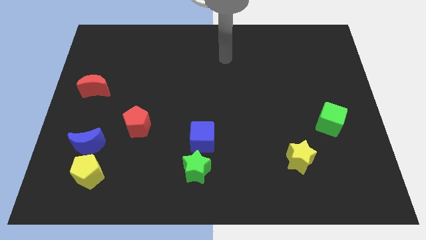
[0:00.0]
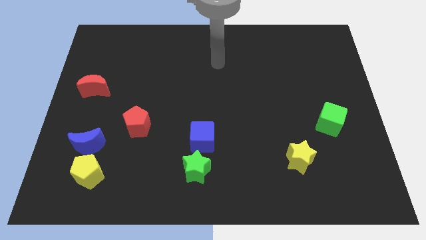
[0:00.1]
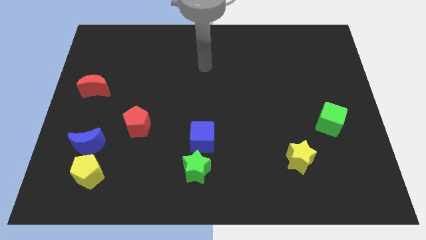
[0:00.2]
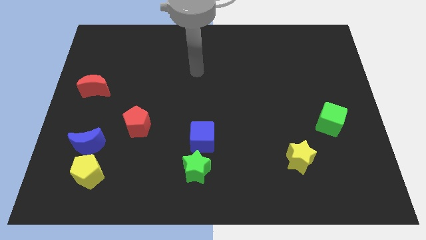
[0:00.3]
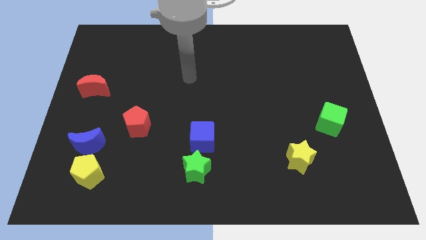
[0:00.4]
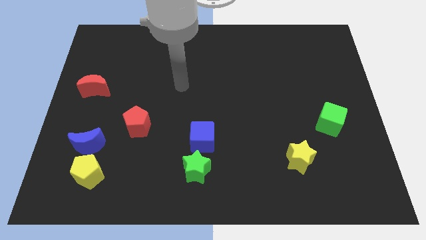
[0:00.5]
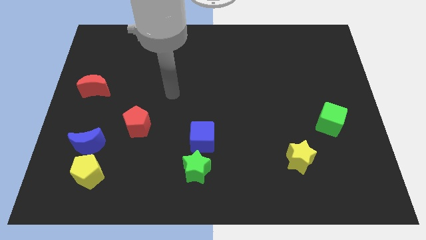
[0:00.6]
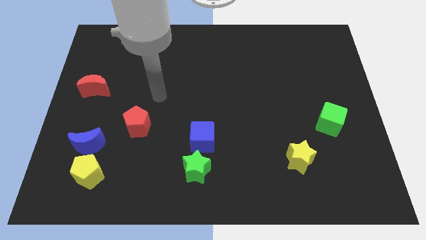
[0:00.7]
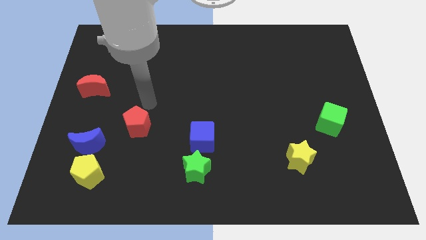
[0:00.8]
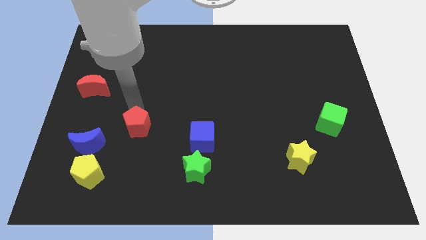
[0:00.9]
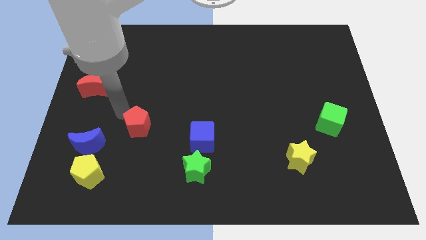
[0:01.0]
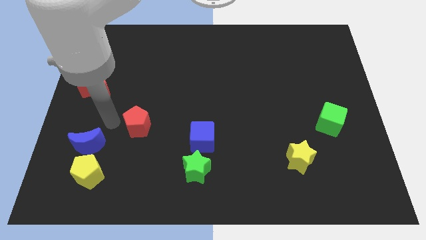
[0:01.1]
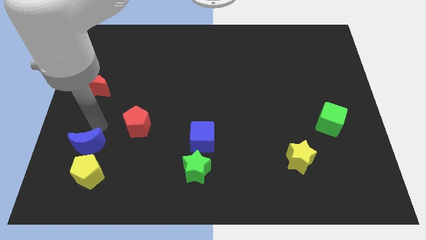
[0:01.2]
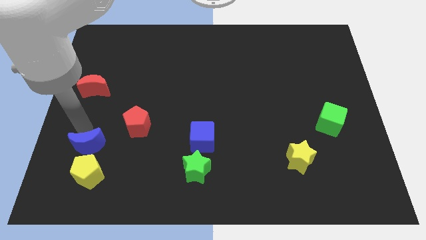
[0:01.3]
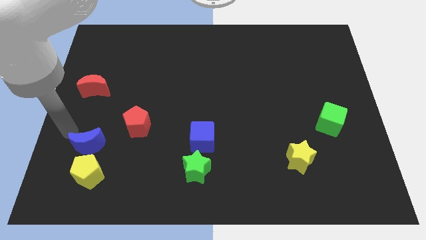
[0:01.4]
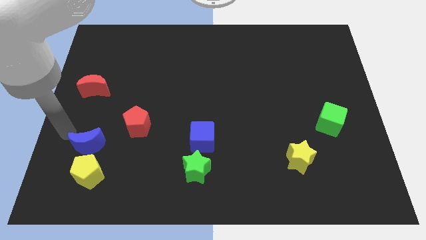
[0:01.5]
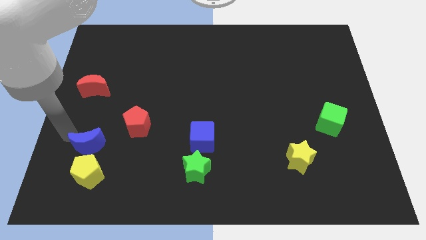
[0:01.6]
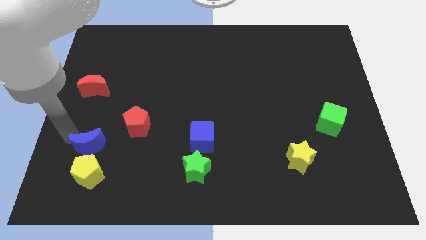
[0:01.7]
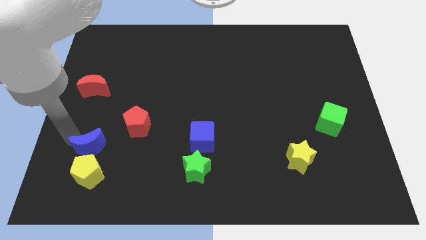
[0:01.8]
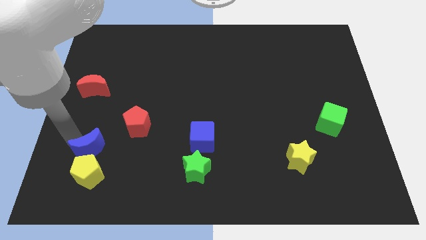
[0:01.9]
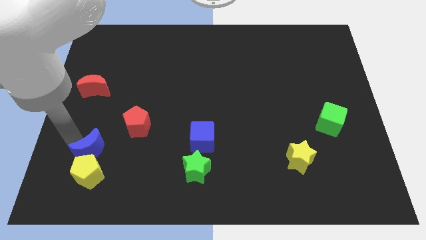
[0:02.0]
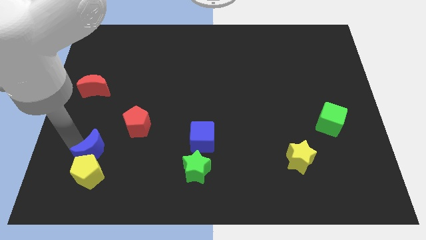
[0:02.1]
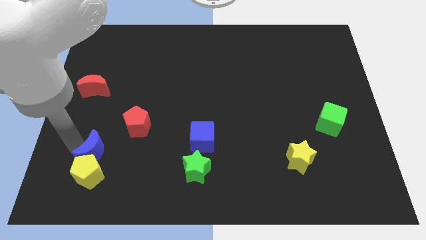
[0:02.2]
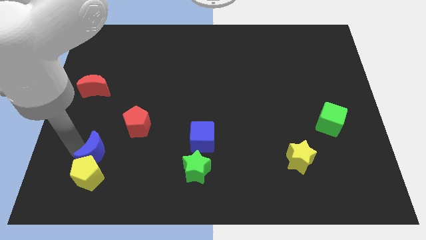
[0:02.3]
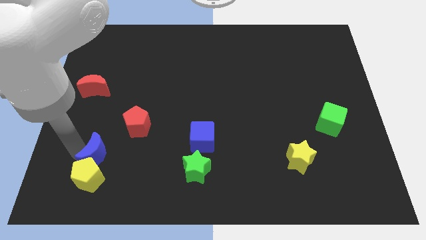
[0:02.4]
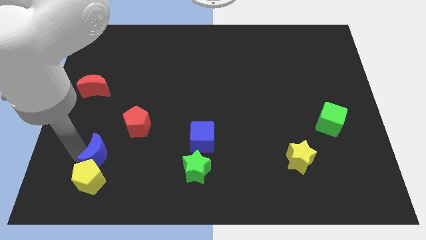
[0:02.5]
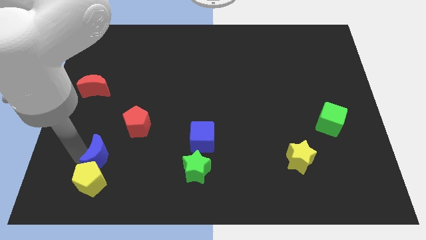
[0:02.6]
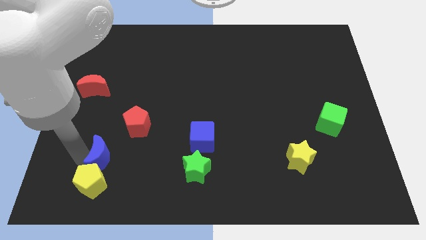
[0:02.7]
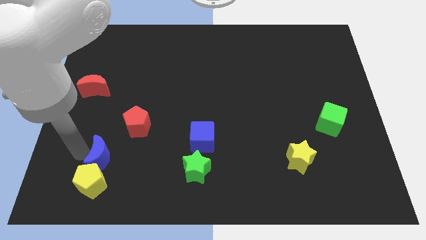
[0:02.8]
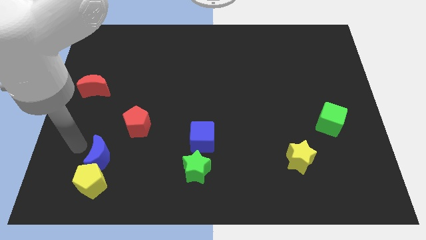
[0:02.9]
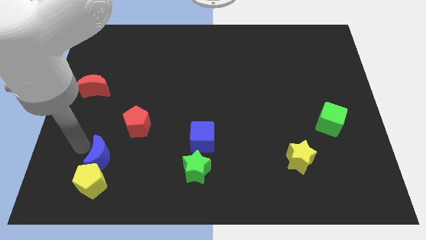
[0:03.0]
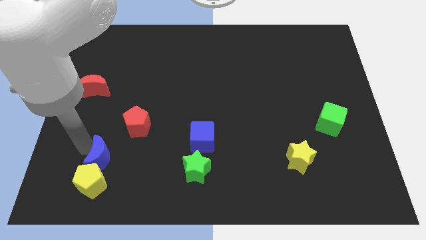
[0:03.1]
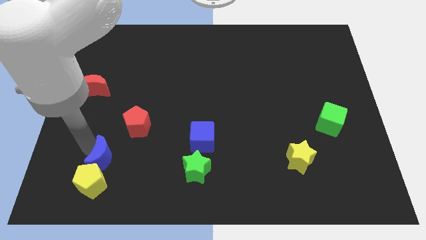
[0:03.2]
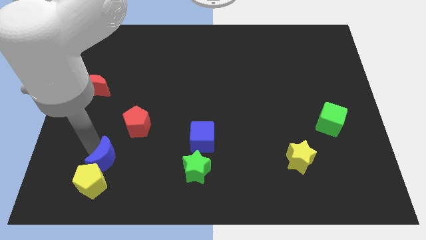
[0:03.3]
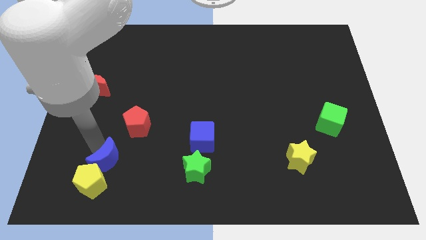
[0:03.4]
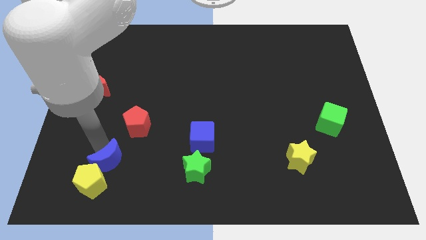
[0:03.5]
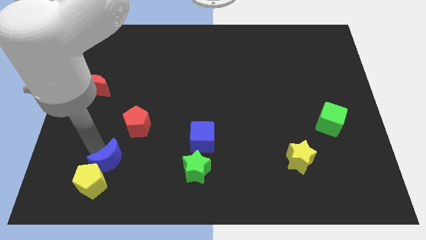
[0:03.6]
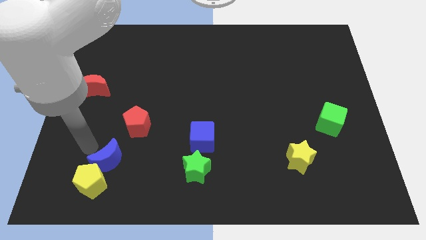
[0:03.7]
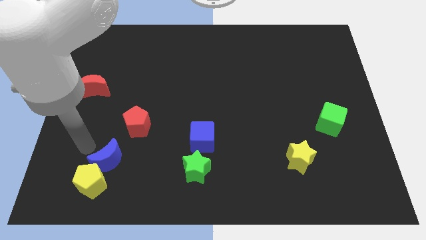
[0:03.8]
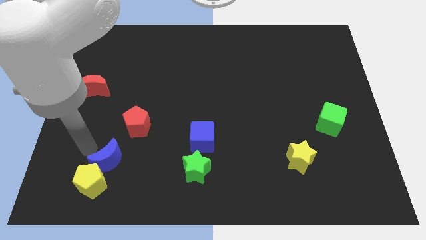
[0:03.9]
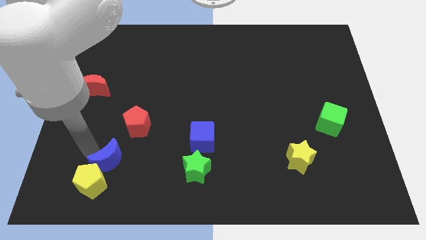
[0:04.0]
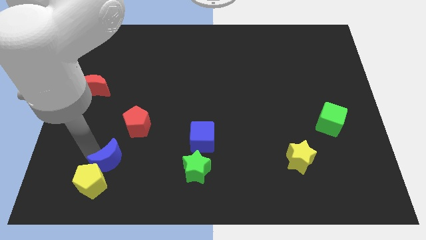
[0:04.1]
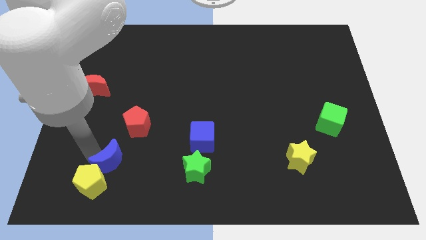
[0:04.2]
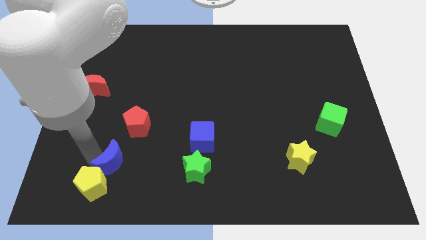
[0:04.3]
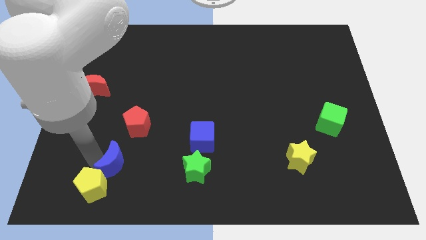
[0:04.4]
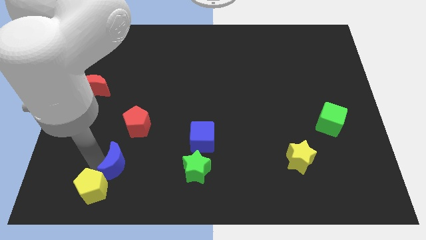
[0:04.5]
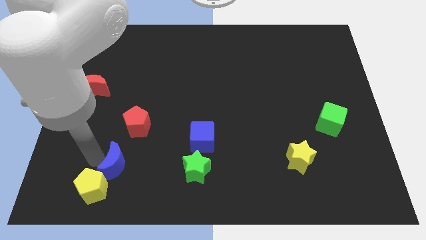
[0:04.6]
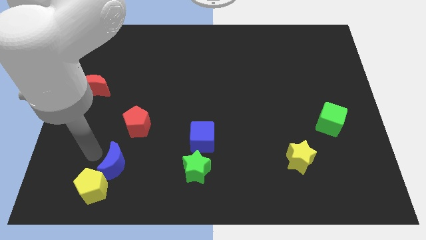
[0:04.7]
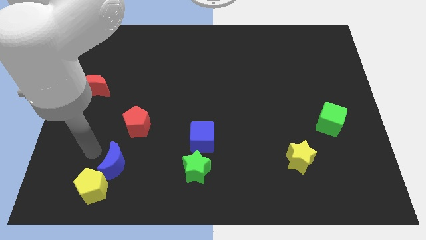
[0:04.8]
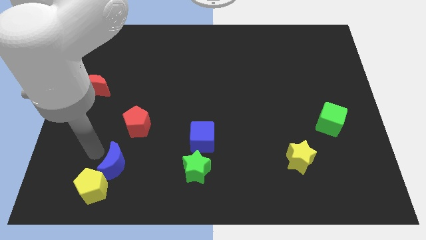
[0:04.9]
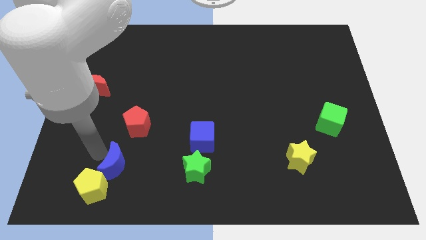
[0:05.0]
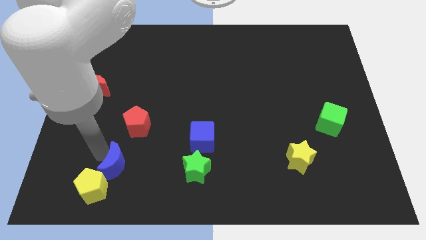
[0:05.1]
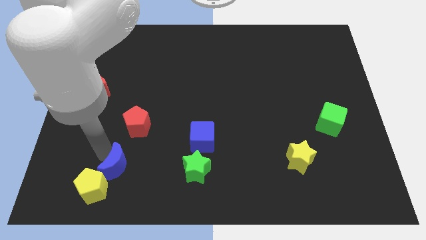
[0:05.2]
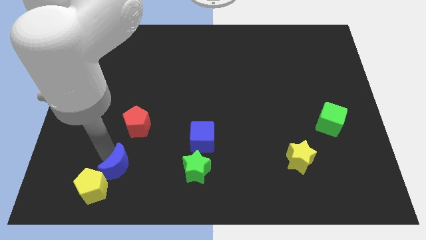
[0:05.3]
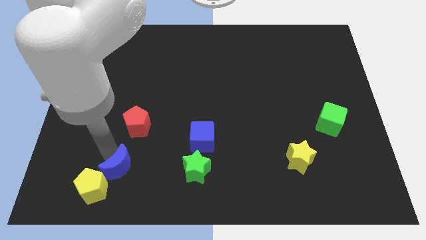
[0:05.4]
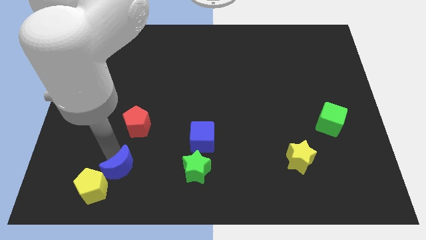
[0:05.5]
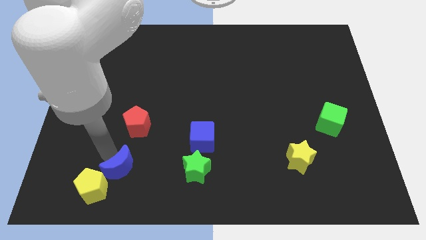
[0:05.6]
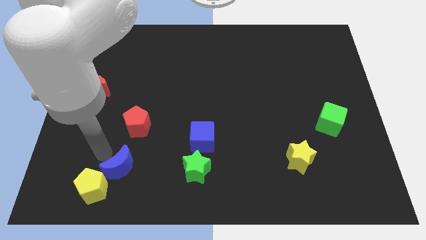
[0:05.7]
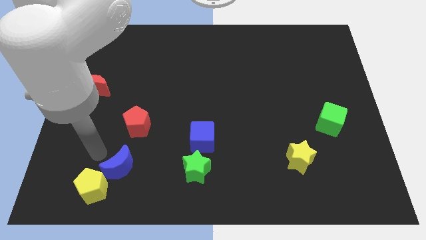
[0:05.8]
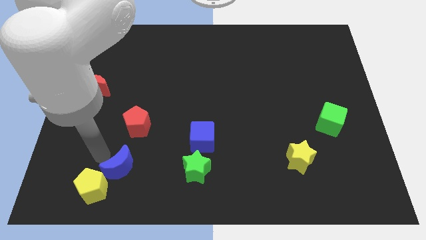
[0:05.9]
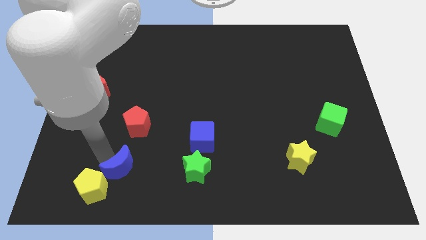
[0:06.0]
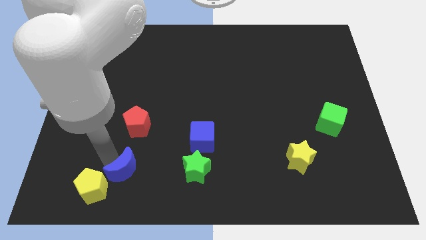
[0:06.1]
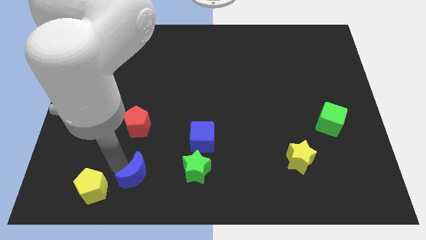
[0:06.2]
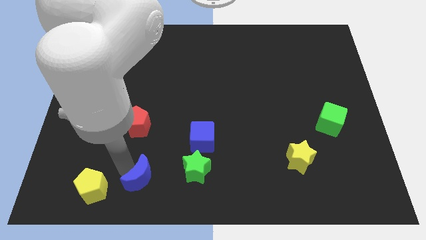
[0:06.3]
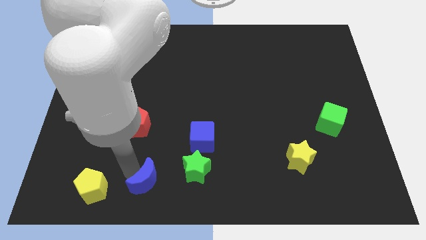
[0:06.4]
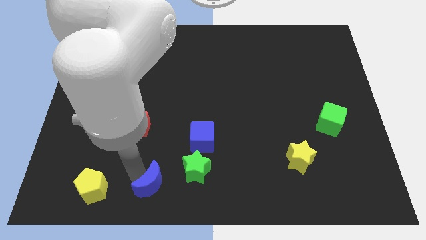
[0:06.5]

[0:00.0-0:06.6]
slide the blue moon to the bottom

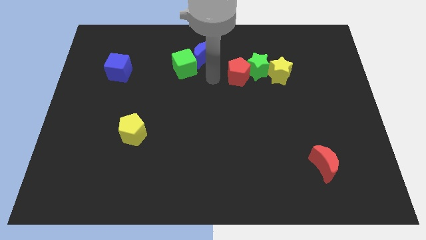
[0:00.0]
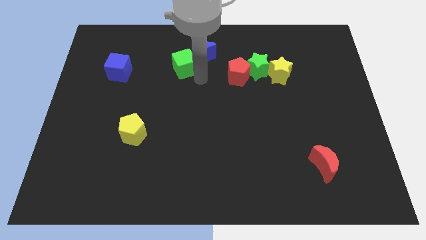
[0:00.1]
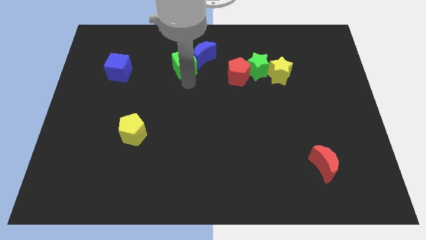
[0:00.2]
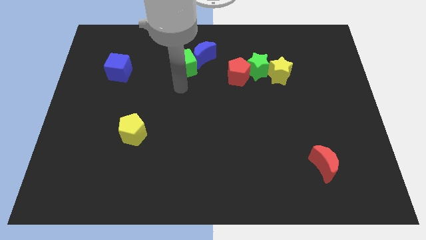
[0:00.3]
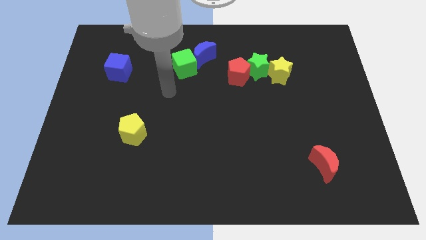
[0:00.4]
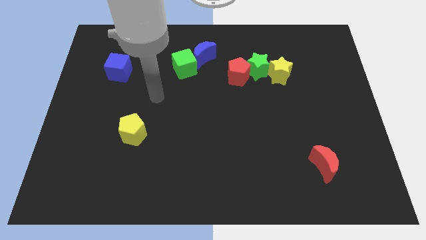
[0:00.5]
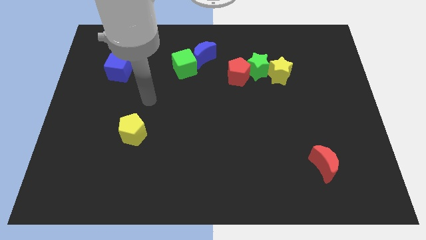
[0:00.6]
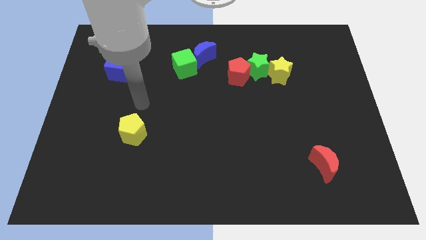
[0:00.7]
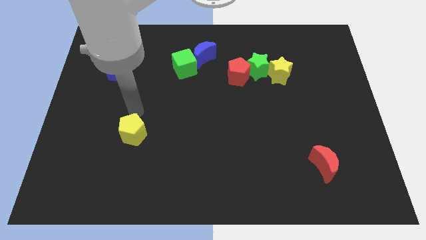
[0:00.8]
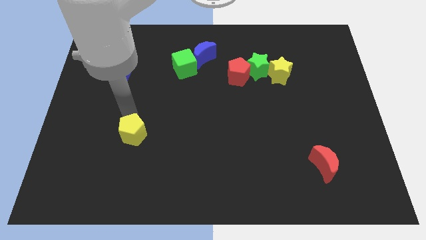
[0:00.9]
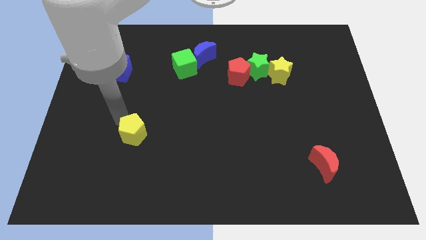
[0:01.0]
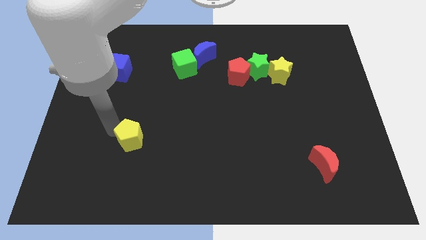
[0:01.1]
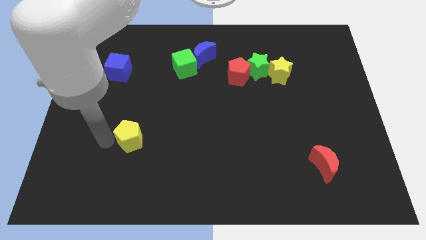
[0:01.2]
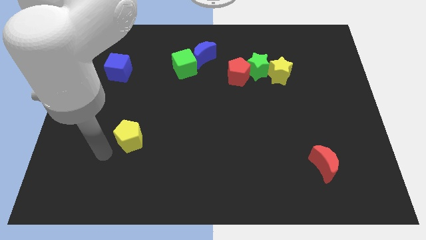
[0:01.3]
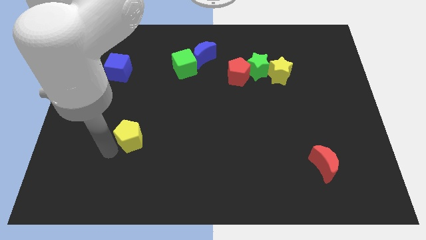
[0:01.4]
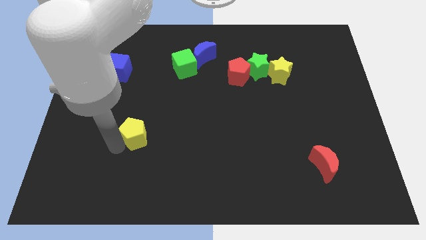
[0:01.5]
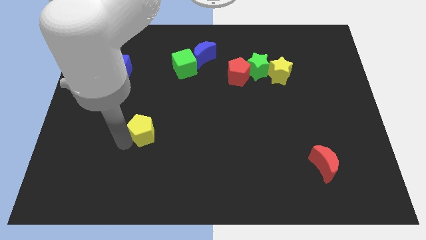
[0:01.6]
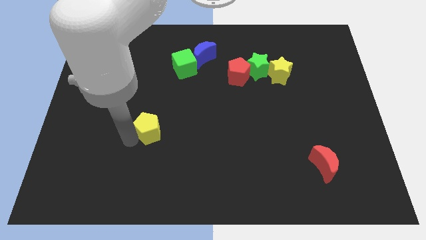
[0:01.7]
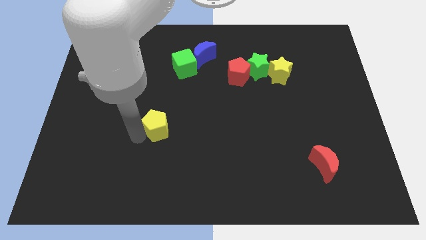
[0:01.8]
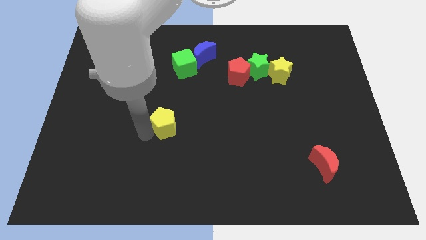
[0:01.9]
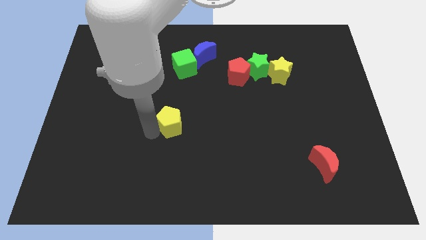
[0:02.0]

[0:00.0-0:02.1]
move the yellow pentagon to the center
